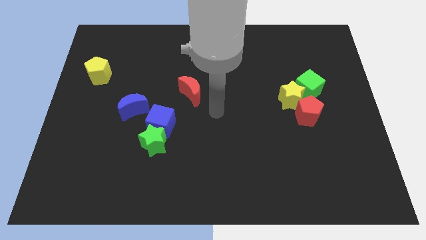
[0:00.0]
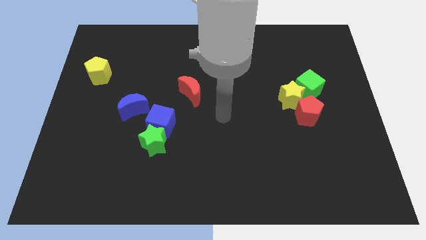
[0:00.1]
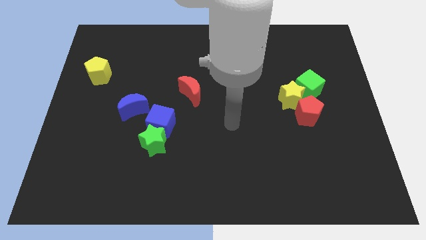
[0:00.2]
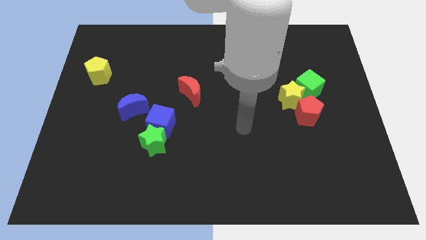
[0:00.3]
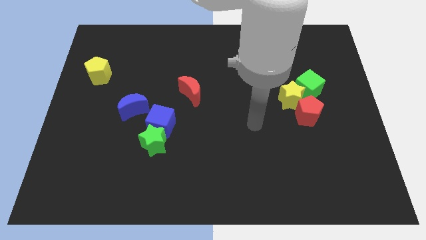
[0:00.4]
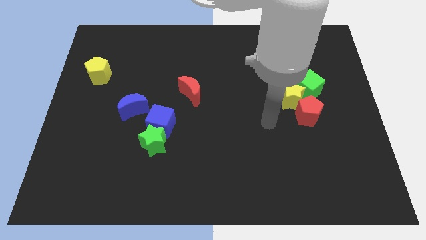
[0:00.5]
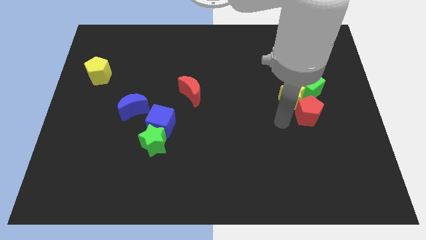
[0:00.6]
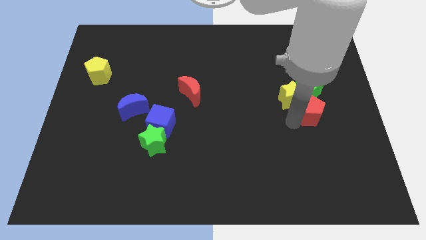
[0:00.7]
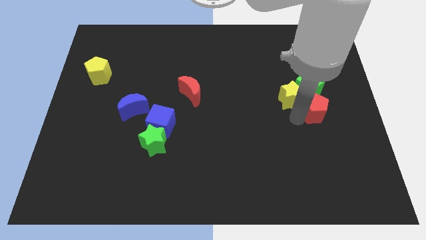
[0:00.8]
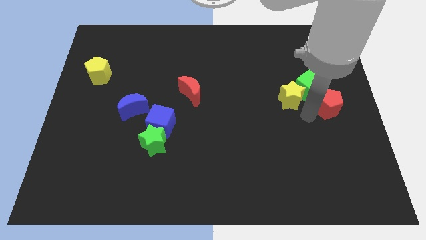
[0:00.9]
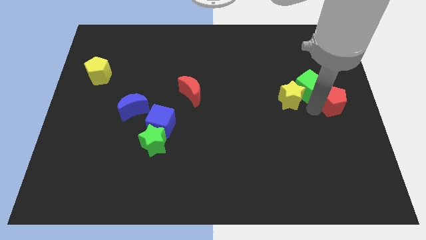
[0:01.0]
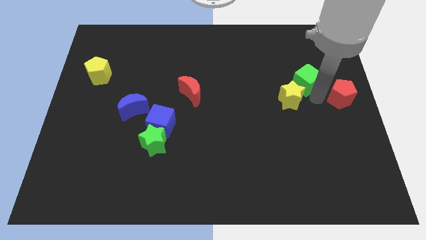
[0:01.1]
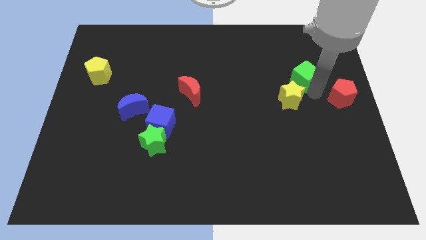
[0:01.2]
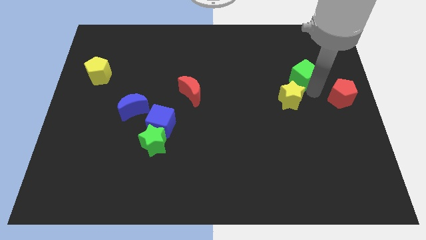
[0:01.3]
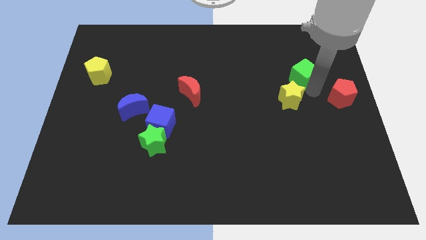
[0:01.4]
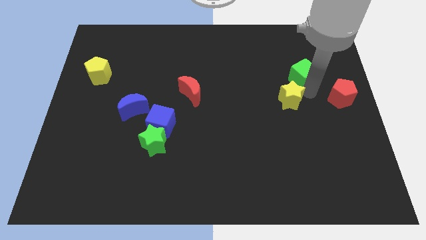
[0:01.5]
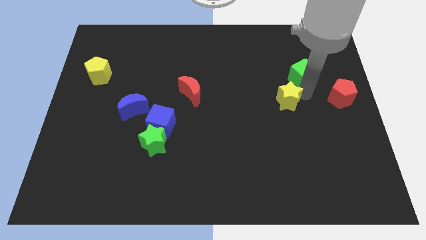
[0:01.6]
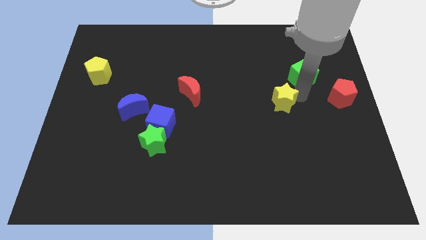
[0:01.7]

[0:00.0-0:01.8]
separate the yellow star from the red pentagon and green cube

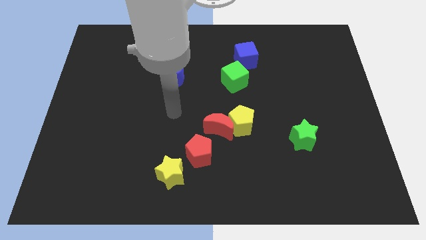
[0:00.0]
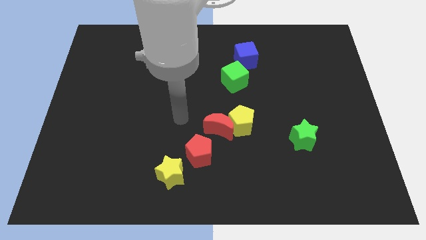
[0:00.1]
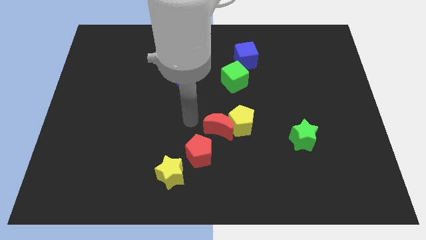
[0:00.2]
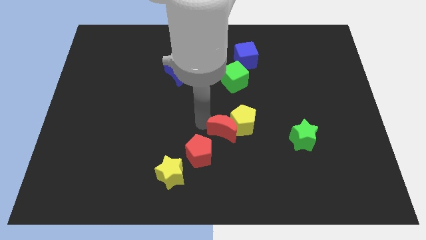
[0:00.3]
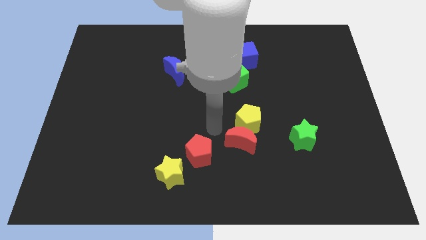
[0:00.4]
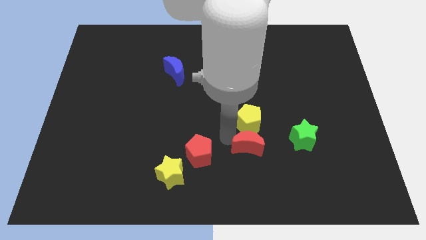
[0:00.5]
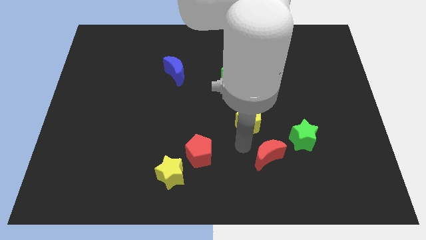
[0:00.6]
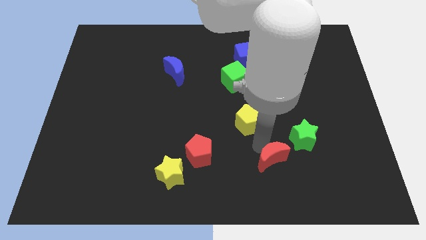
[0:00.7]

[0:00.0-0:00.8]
move the yellow pentagon away from the red moon

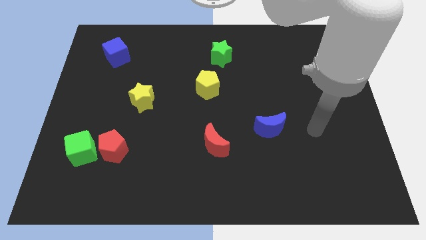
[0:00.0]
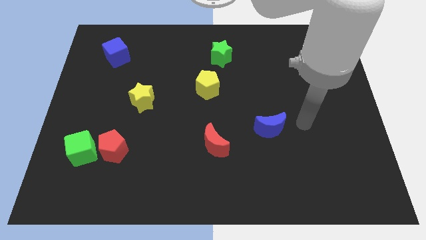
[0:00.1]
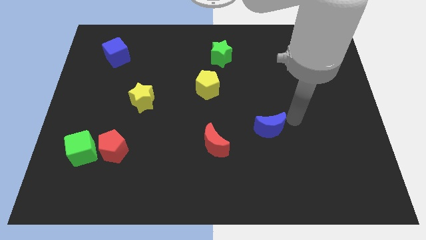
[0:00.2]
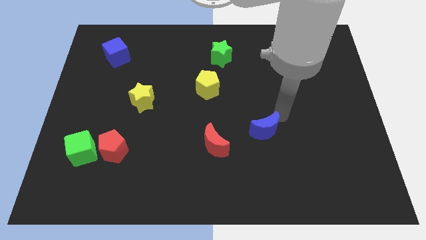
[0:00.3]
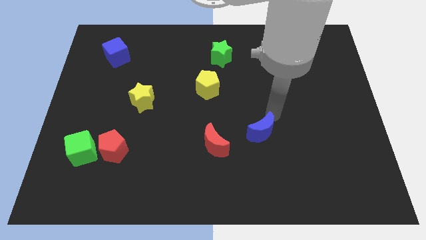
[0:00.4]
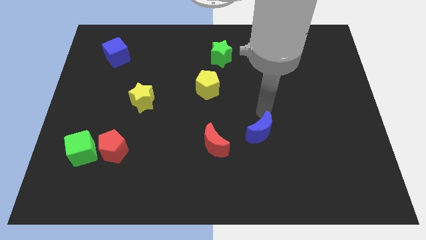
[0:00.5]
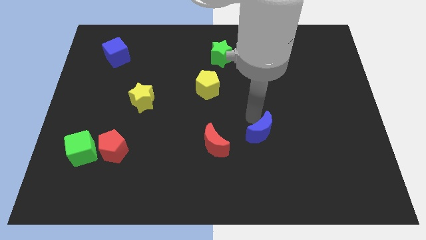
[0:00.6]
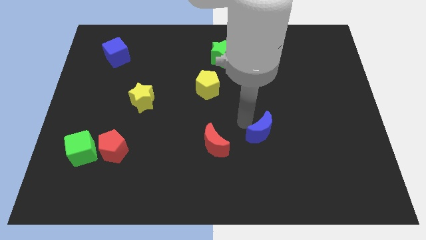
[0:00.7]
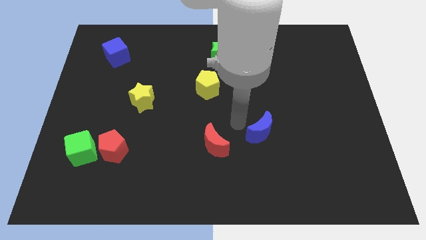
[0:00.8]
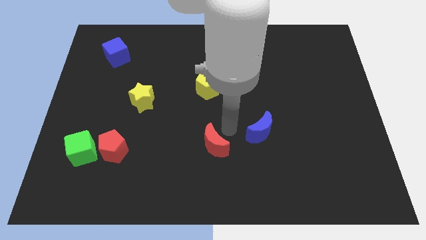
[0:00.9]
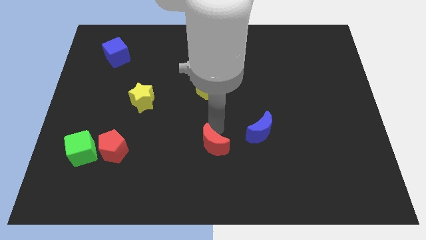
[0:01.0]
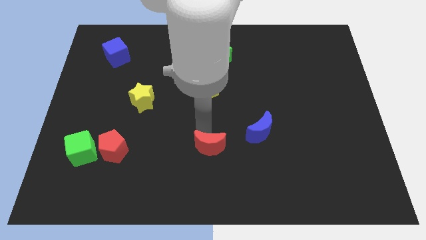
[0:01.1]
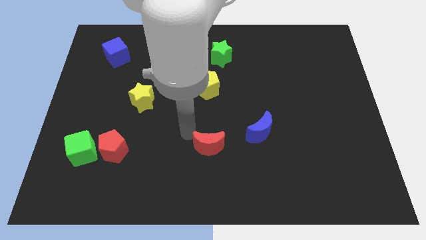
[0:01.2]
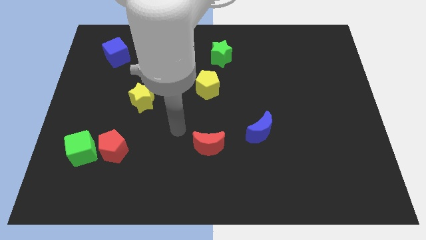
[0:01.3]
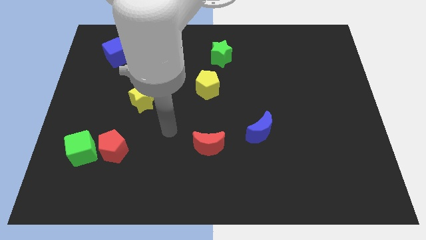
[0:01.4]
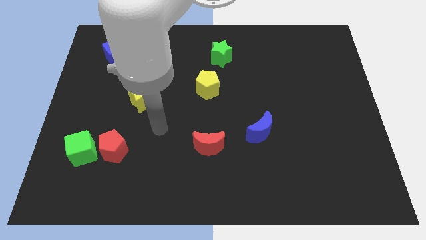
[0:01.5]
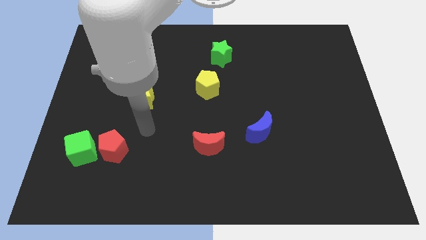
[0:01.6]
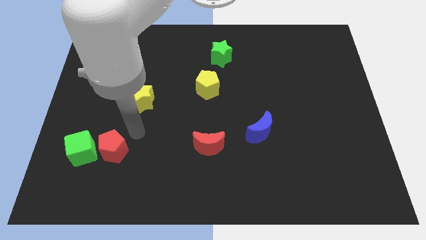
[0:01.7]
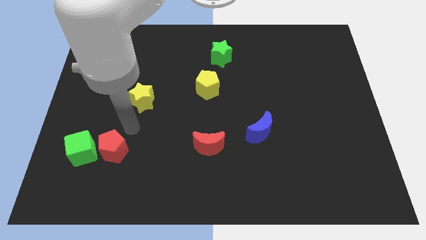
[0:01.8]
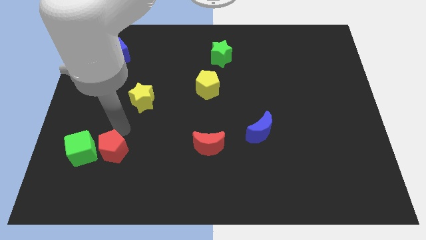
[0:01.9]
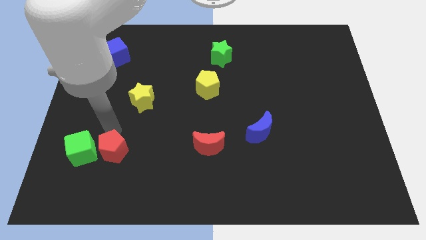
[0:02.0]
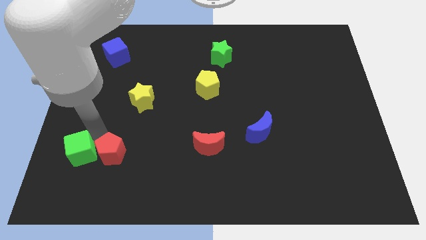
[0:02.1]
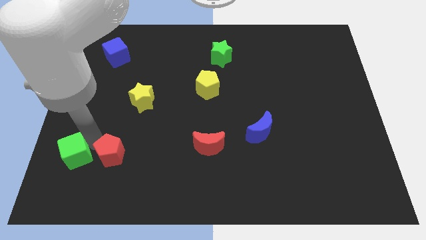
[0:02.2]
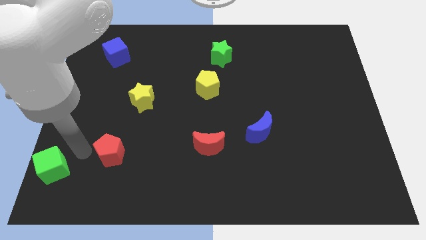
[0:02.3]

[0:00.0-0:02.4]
move the red pentagon away from the green cube

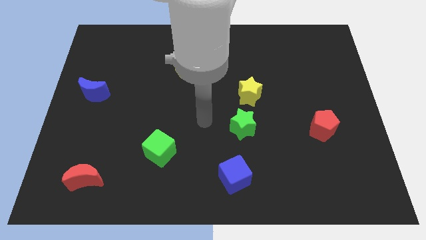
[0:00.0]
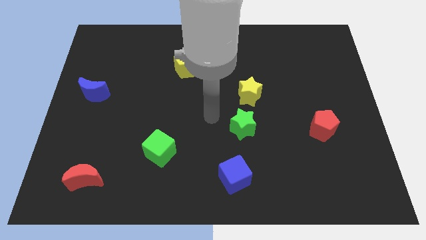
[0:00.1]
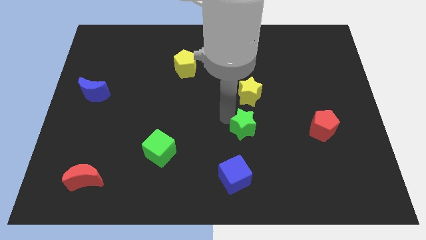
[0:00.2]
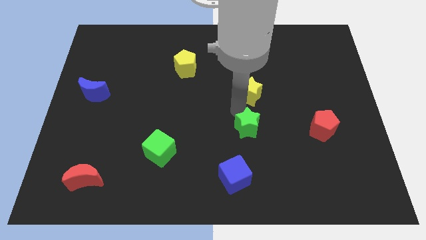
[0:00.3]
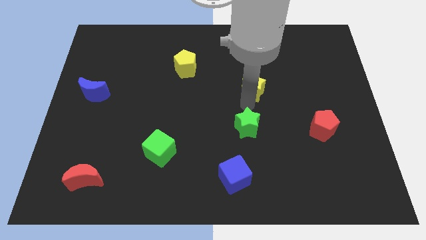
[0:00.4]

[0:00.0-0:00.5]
pull the green star apart from the yellow star

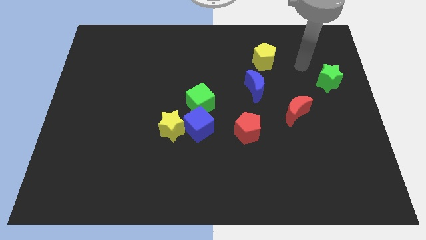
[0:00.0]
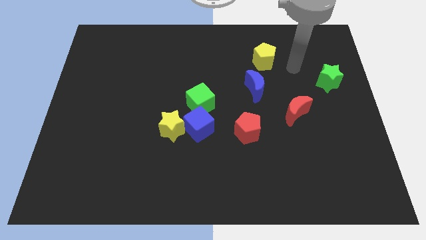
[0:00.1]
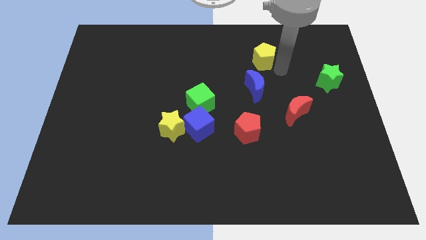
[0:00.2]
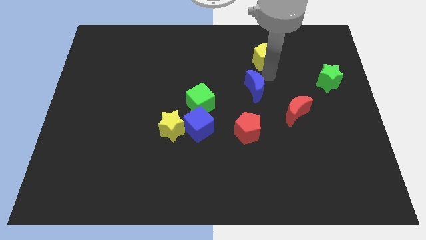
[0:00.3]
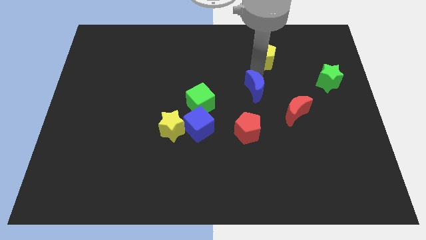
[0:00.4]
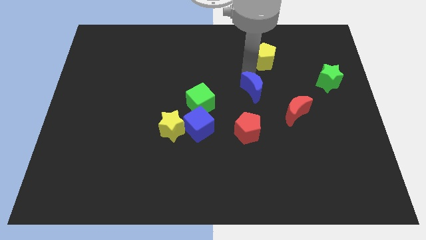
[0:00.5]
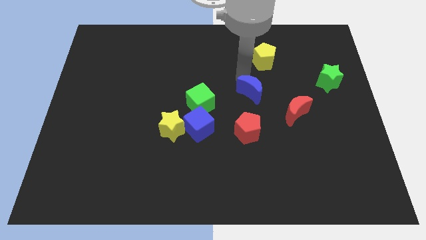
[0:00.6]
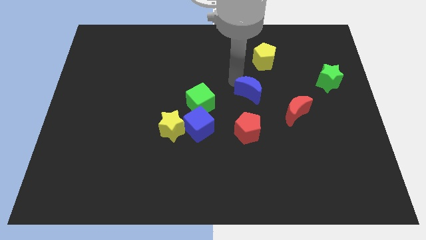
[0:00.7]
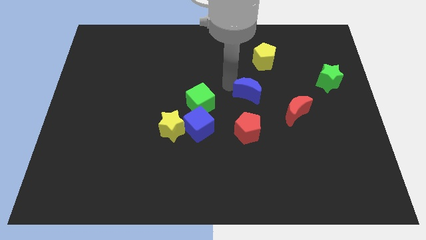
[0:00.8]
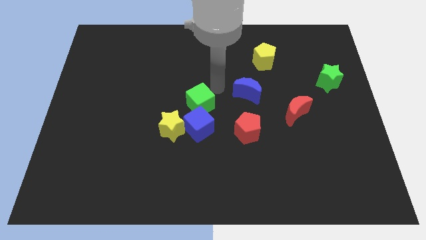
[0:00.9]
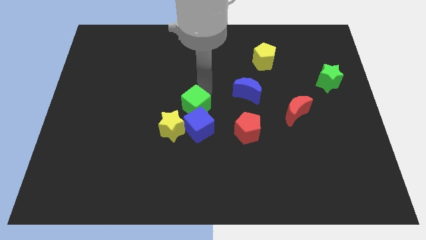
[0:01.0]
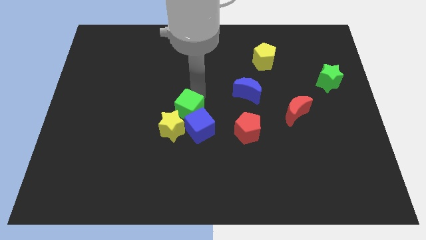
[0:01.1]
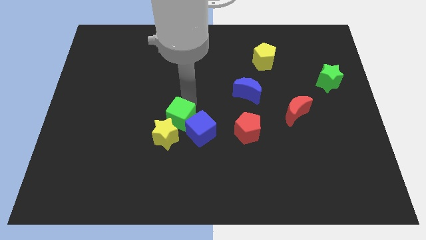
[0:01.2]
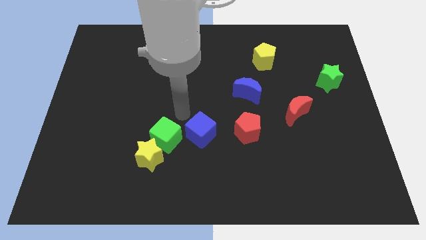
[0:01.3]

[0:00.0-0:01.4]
move the blue cube away from the yellow star and green cube

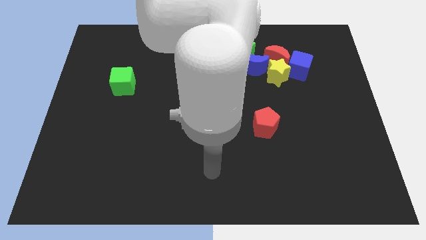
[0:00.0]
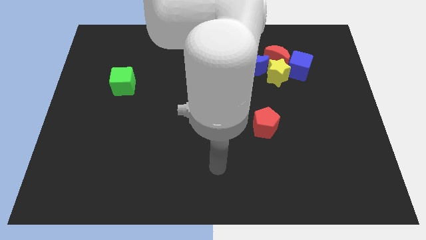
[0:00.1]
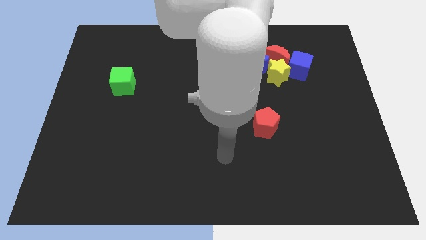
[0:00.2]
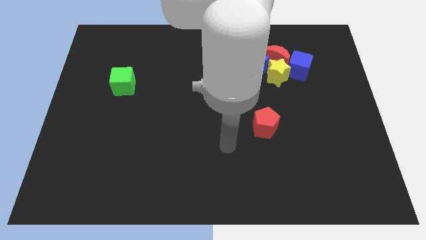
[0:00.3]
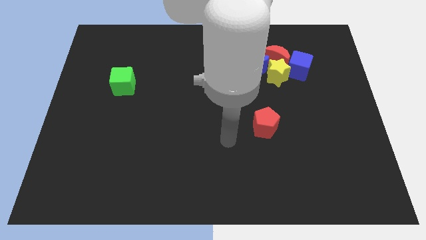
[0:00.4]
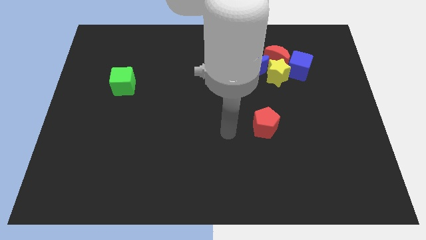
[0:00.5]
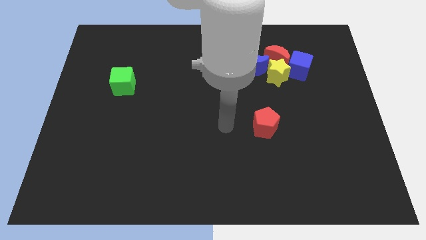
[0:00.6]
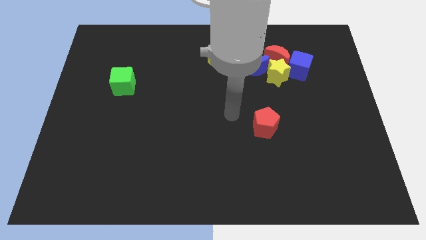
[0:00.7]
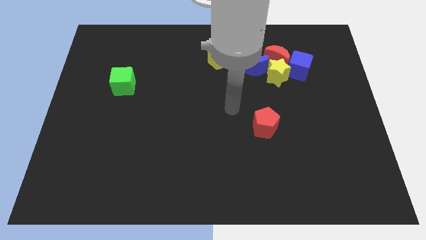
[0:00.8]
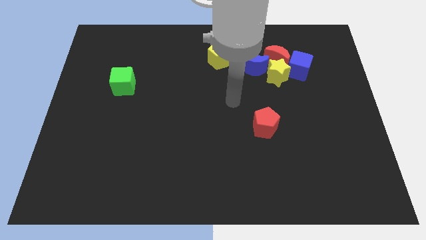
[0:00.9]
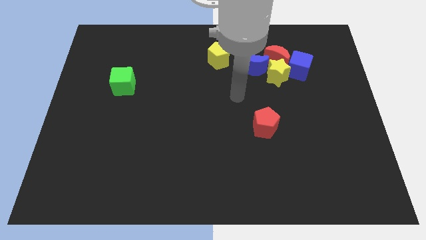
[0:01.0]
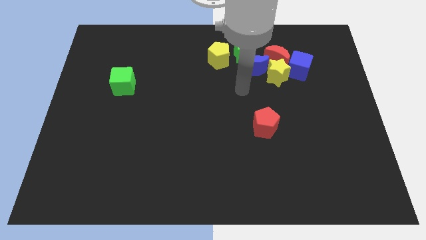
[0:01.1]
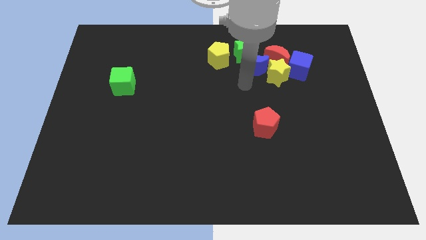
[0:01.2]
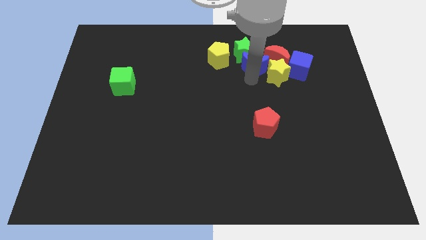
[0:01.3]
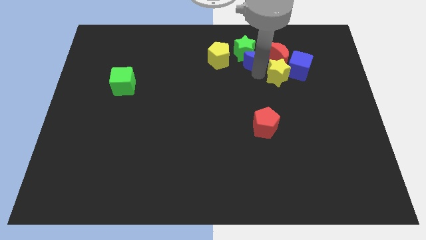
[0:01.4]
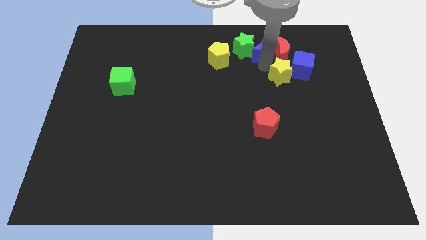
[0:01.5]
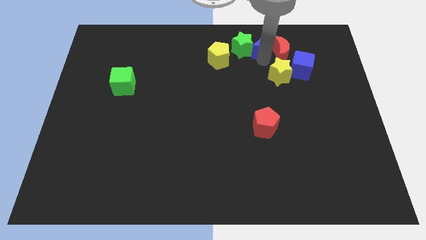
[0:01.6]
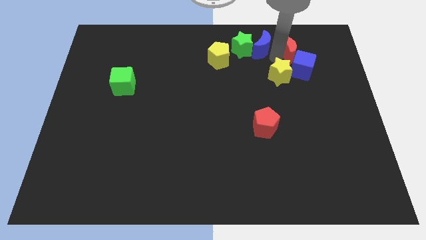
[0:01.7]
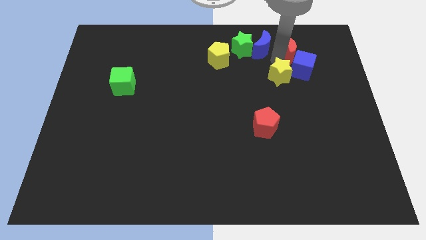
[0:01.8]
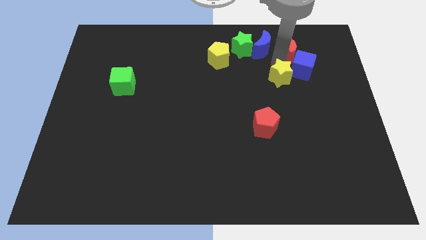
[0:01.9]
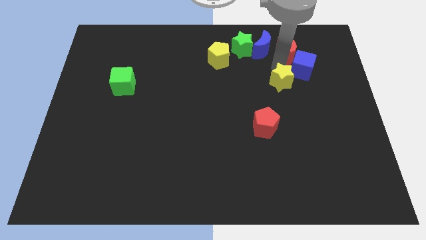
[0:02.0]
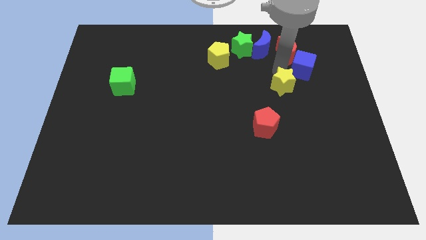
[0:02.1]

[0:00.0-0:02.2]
move the yellow star away from the group of blocks
